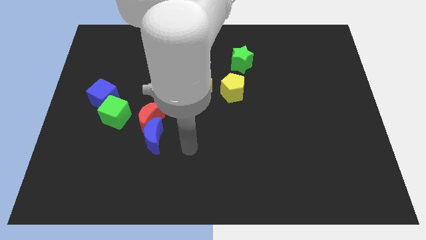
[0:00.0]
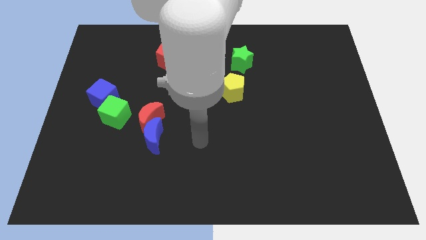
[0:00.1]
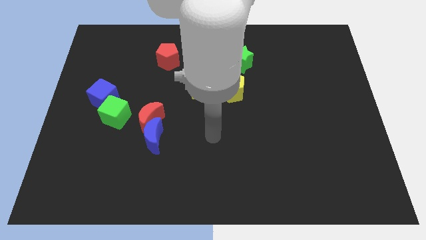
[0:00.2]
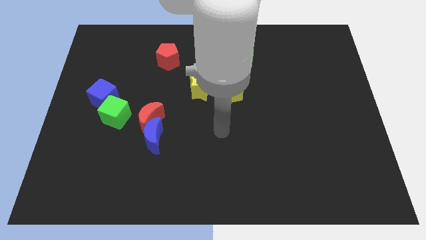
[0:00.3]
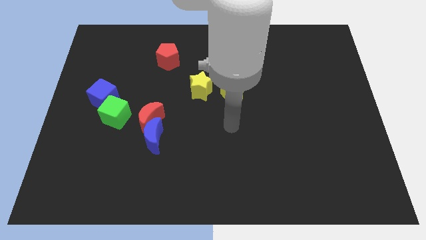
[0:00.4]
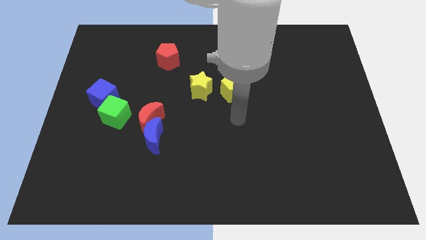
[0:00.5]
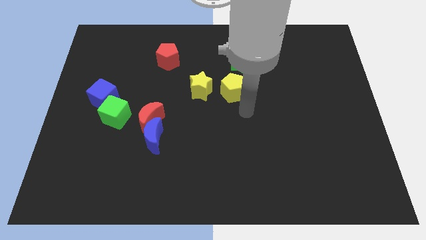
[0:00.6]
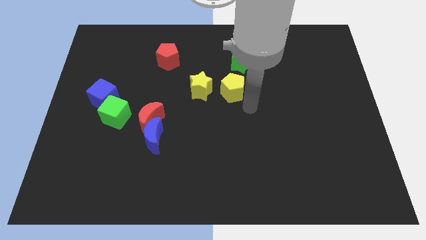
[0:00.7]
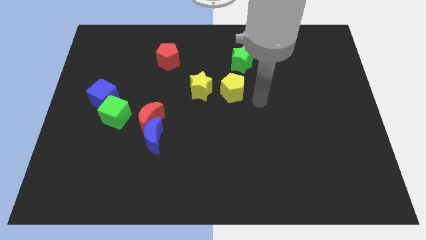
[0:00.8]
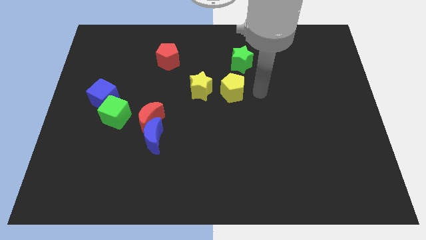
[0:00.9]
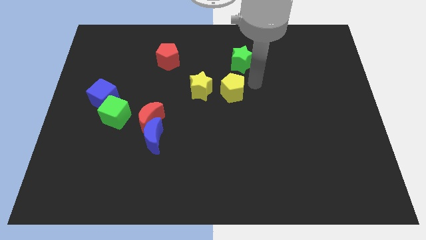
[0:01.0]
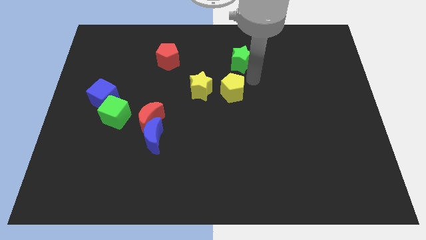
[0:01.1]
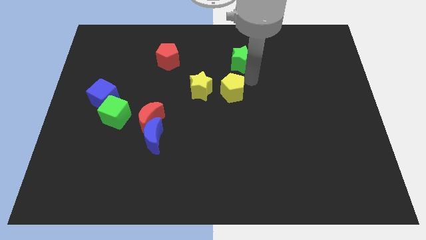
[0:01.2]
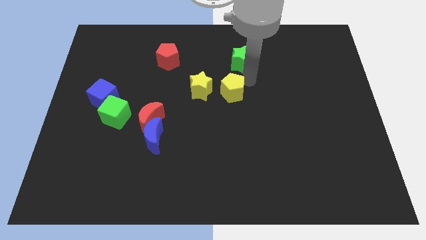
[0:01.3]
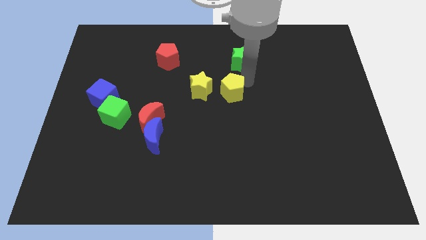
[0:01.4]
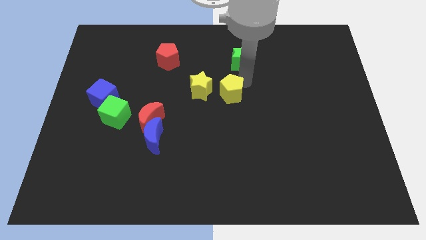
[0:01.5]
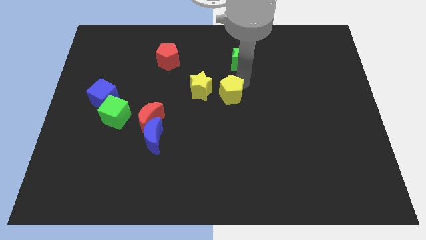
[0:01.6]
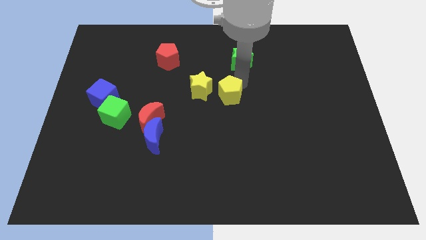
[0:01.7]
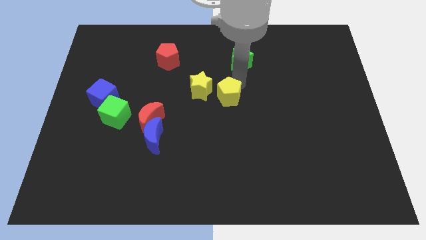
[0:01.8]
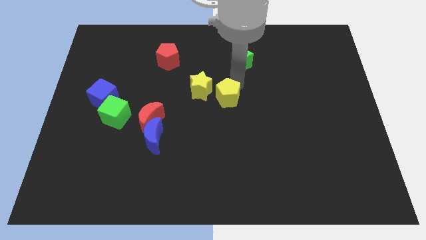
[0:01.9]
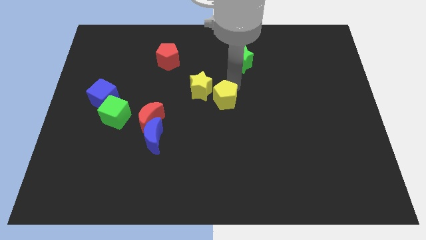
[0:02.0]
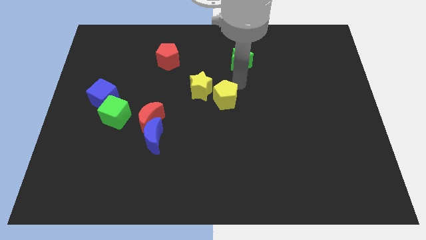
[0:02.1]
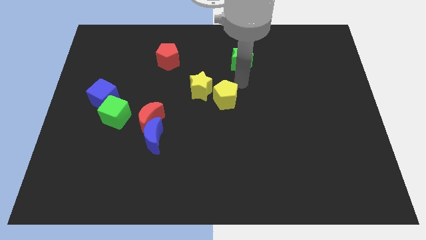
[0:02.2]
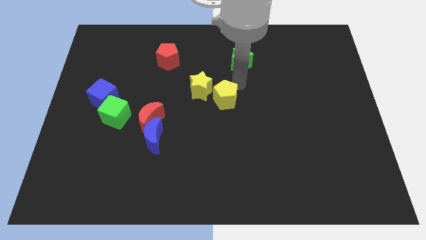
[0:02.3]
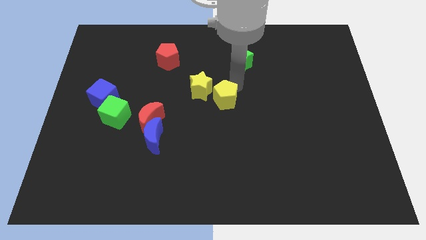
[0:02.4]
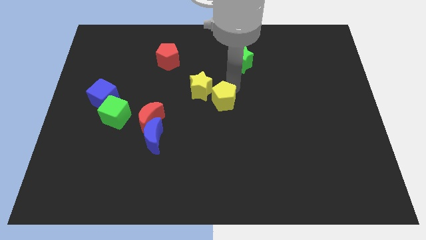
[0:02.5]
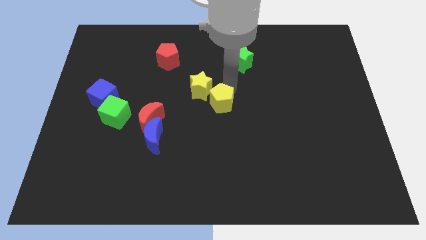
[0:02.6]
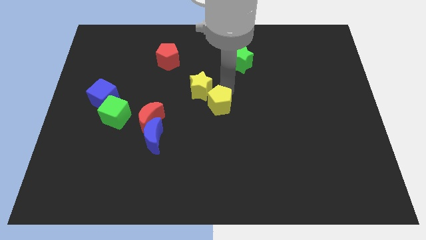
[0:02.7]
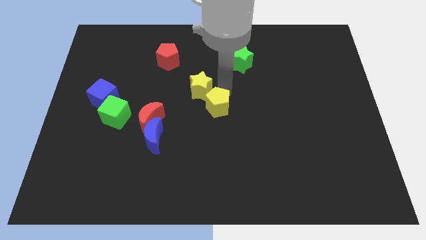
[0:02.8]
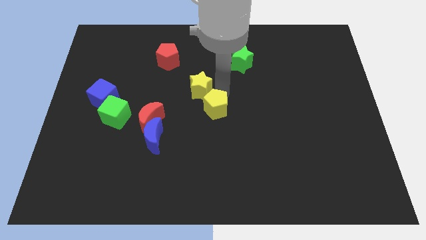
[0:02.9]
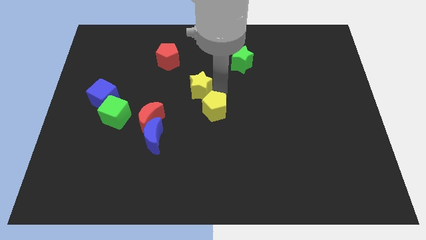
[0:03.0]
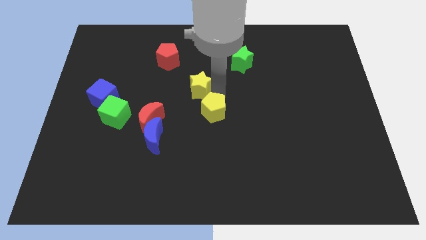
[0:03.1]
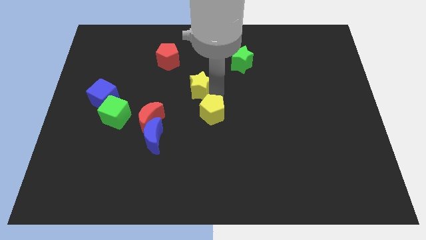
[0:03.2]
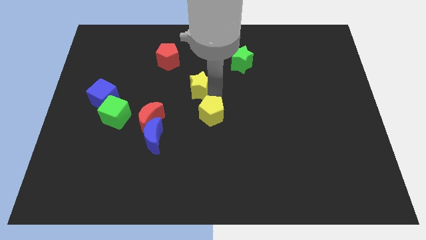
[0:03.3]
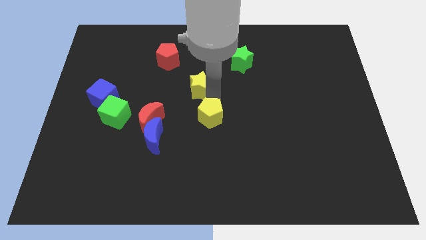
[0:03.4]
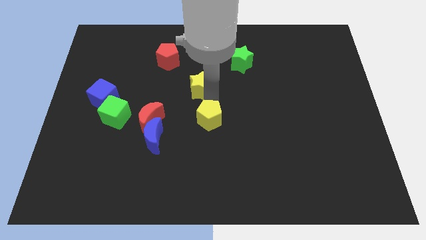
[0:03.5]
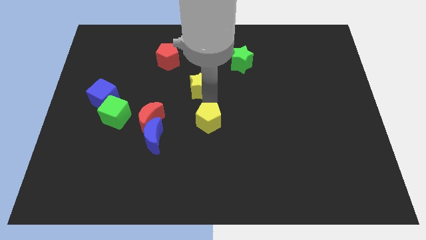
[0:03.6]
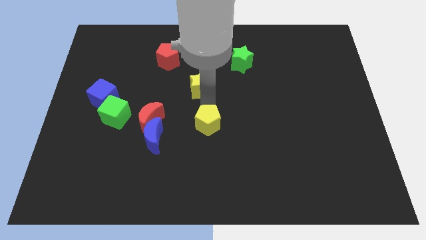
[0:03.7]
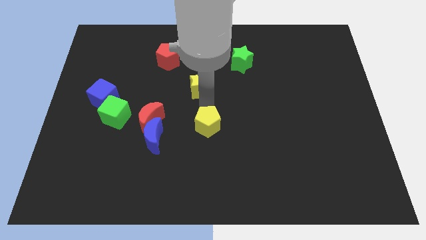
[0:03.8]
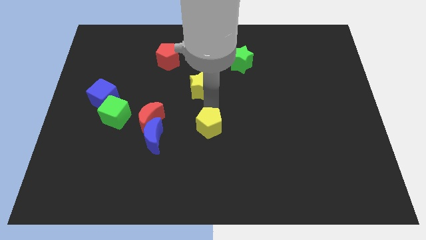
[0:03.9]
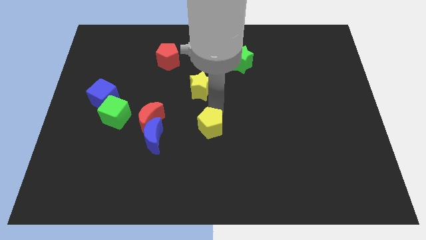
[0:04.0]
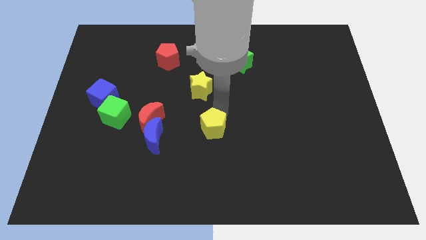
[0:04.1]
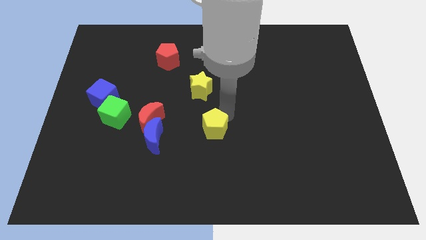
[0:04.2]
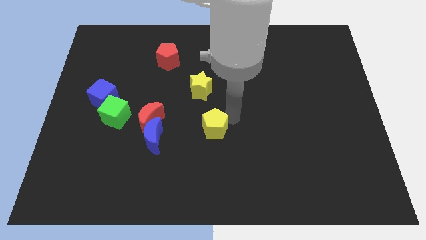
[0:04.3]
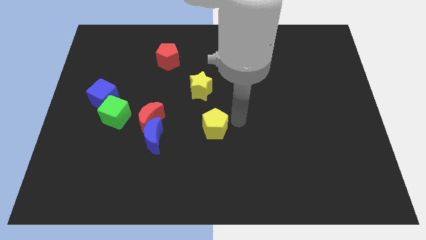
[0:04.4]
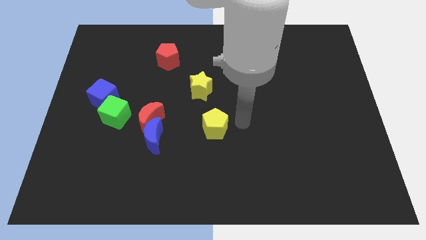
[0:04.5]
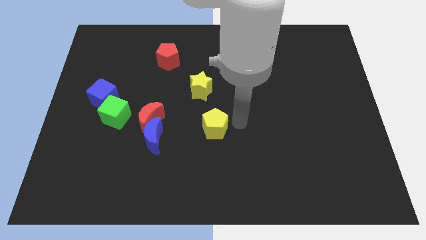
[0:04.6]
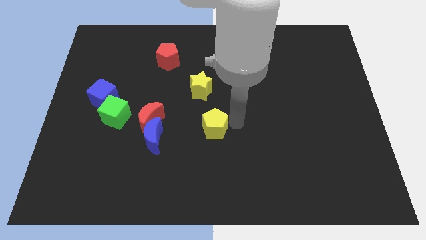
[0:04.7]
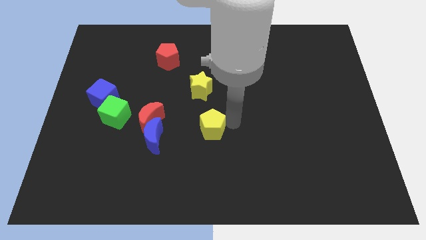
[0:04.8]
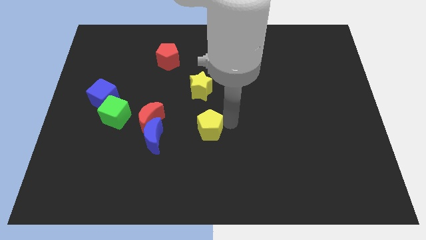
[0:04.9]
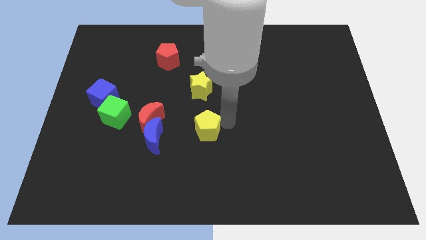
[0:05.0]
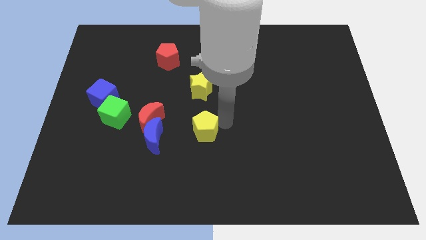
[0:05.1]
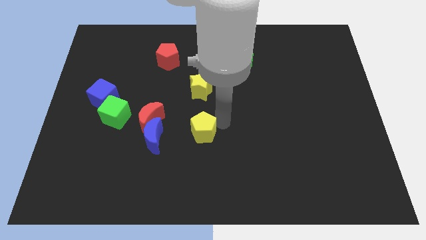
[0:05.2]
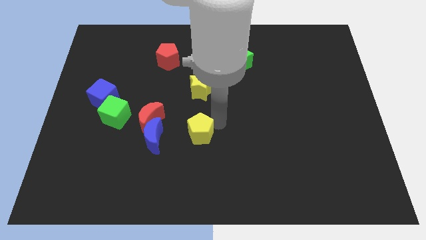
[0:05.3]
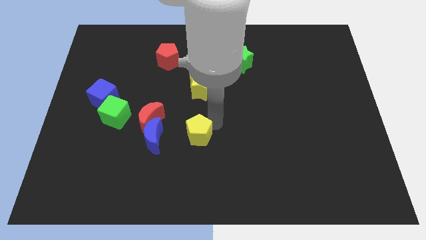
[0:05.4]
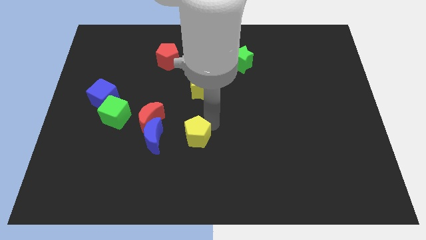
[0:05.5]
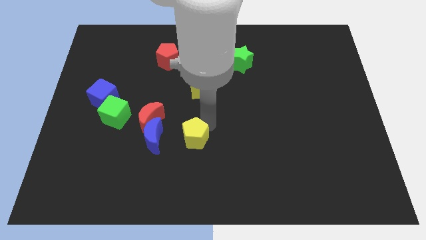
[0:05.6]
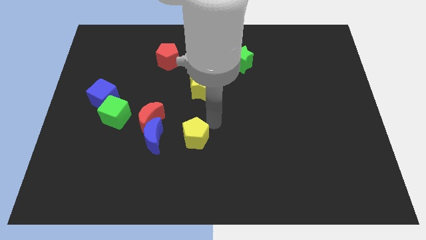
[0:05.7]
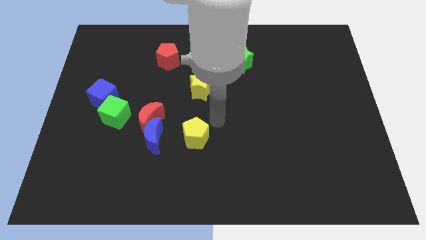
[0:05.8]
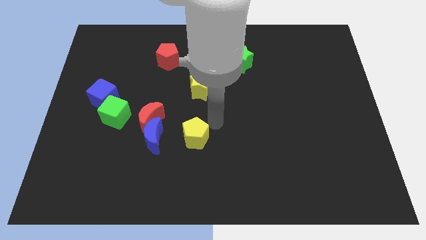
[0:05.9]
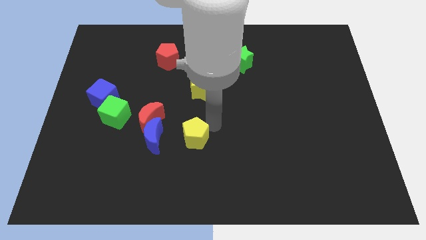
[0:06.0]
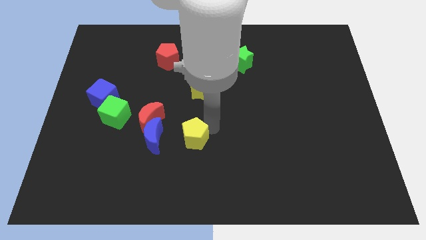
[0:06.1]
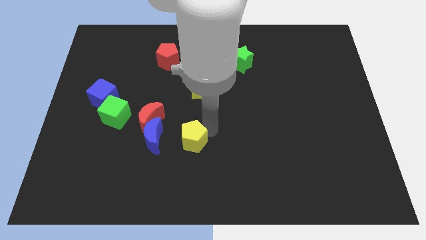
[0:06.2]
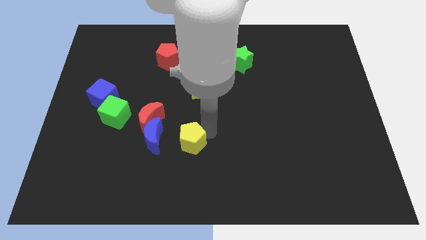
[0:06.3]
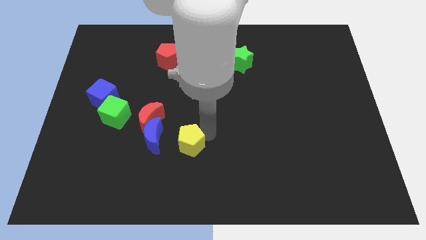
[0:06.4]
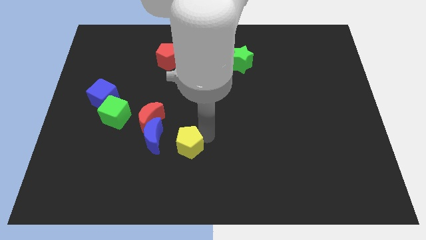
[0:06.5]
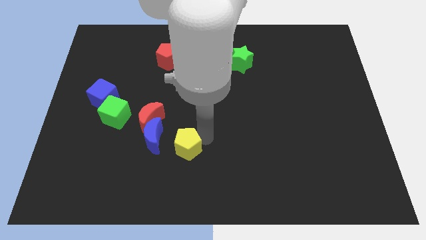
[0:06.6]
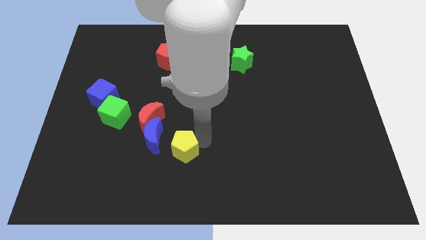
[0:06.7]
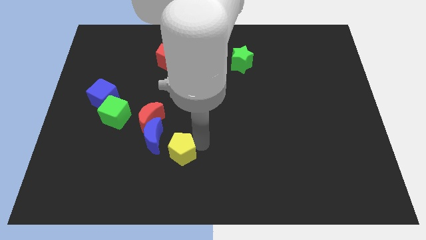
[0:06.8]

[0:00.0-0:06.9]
push the yellow pentagon downwards and to the left diagonally

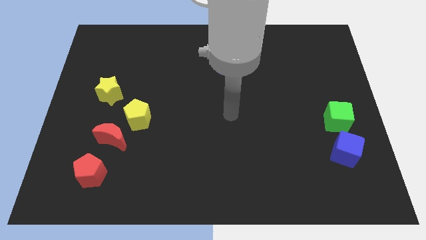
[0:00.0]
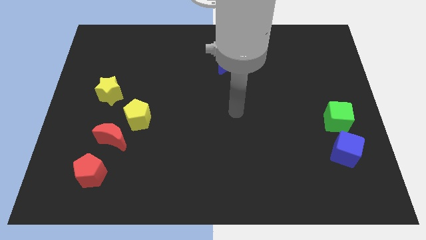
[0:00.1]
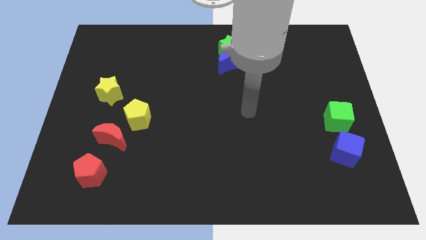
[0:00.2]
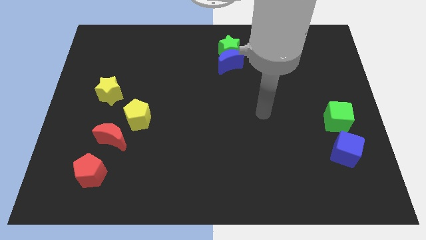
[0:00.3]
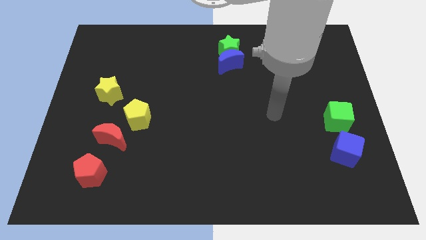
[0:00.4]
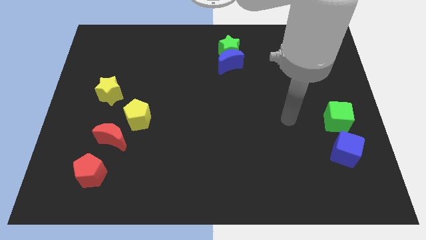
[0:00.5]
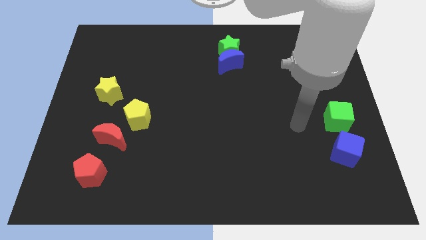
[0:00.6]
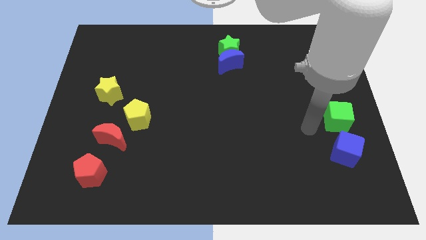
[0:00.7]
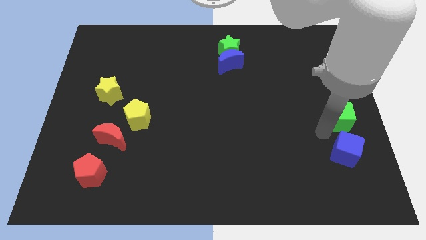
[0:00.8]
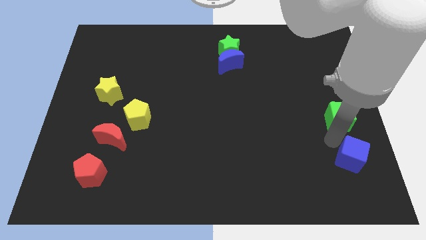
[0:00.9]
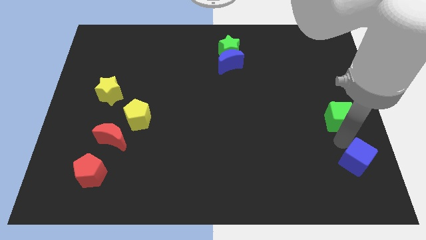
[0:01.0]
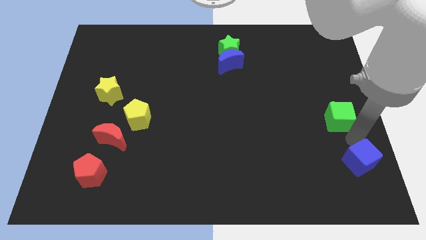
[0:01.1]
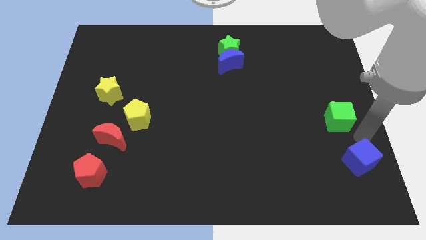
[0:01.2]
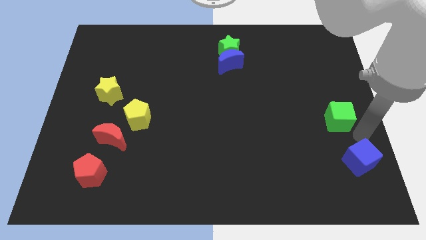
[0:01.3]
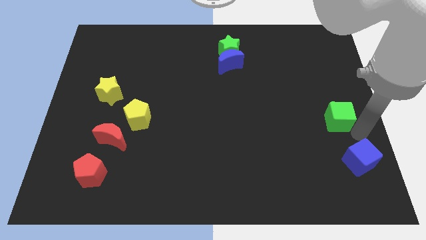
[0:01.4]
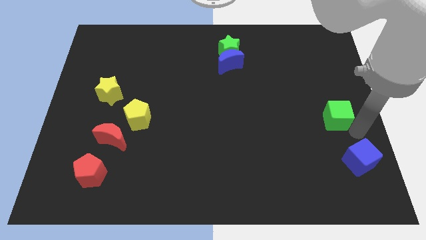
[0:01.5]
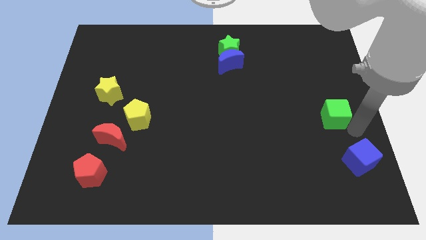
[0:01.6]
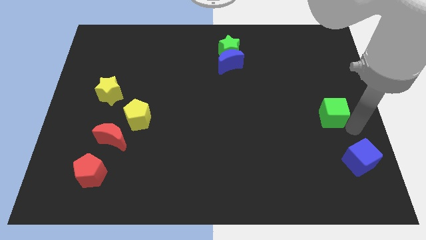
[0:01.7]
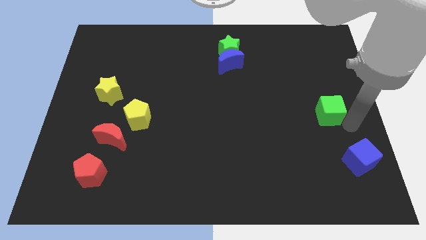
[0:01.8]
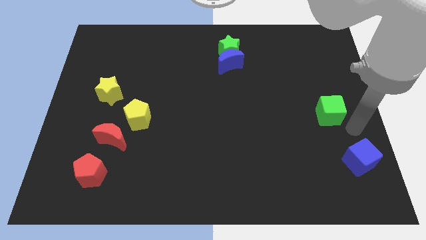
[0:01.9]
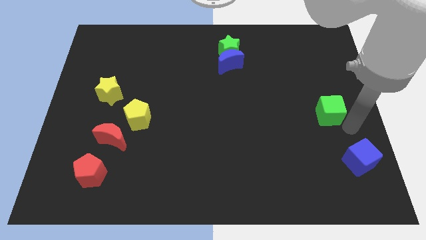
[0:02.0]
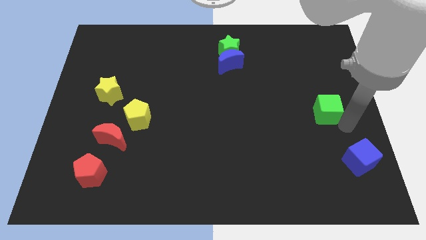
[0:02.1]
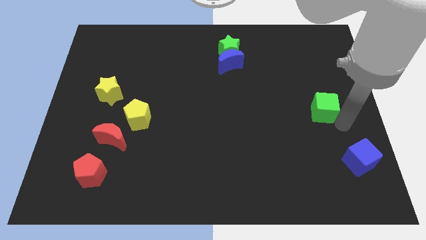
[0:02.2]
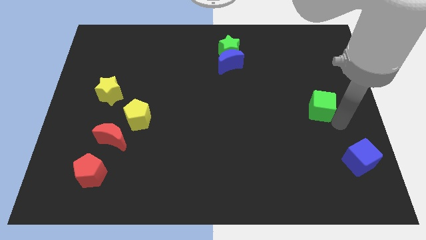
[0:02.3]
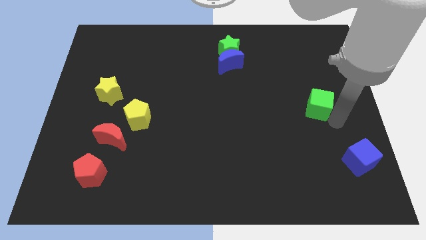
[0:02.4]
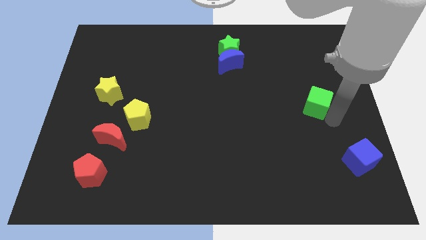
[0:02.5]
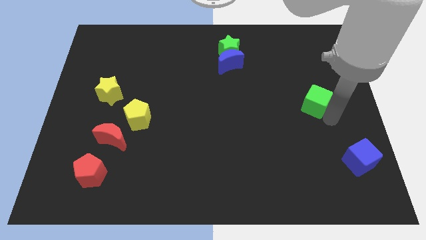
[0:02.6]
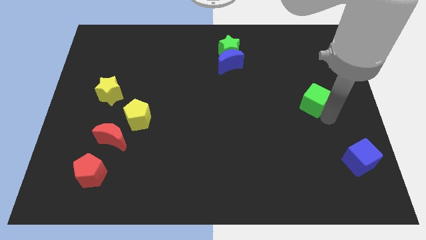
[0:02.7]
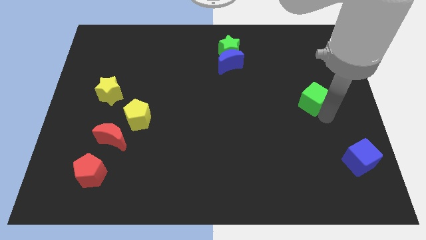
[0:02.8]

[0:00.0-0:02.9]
slightly move the green cube diagonally up and left
